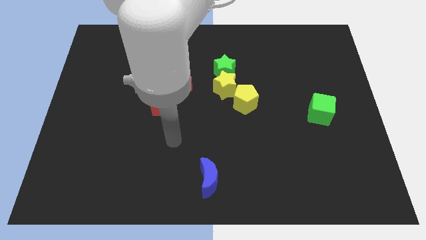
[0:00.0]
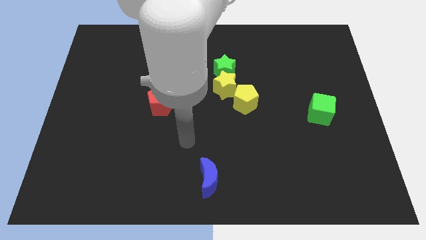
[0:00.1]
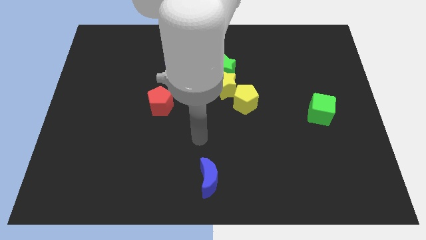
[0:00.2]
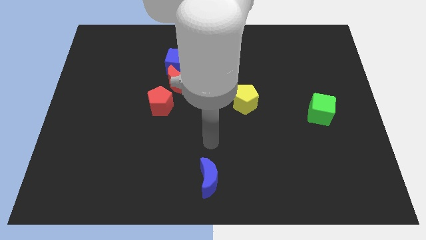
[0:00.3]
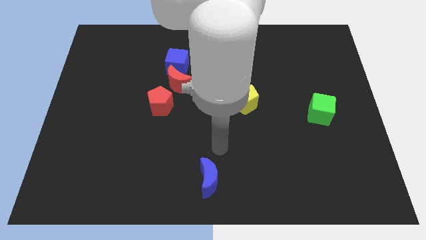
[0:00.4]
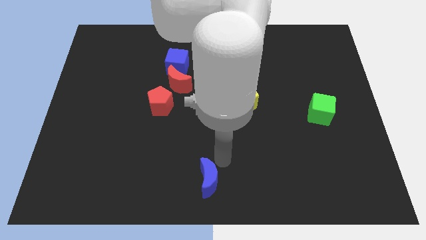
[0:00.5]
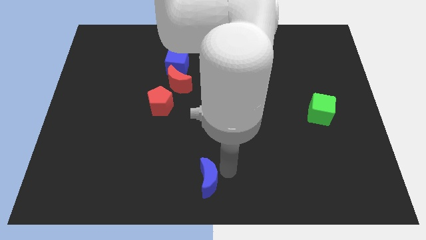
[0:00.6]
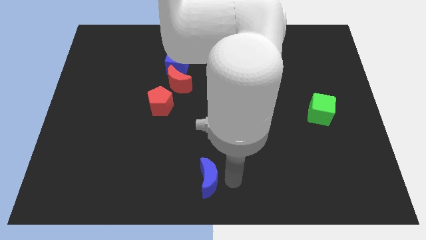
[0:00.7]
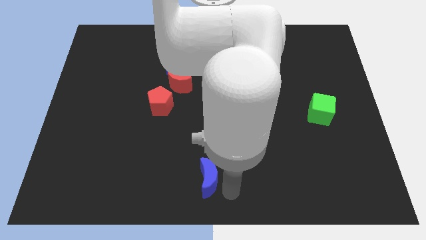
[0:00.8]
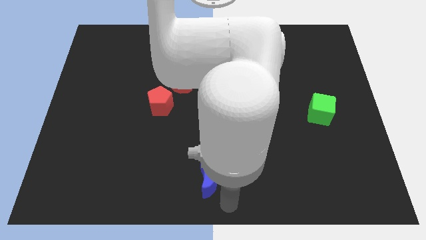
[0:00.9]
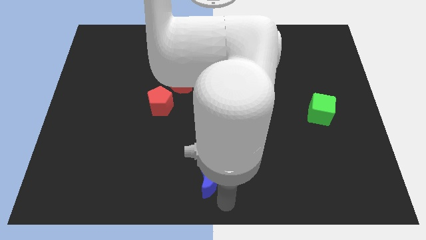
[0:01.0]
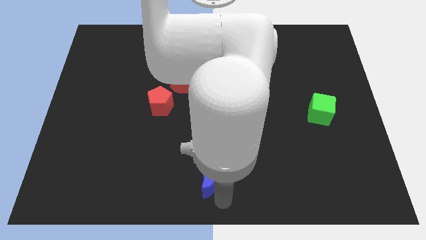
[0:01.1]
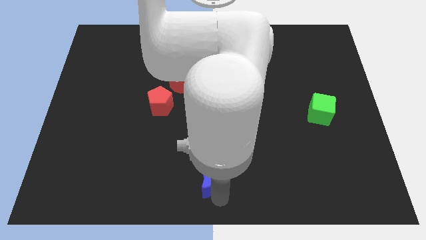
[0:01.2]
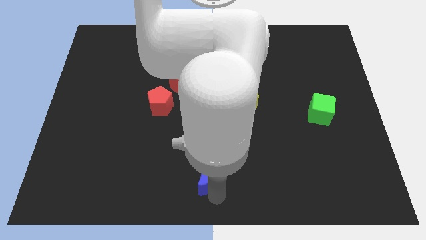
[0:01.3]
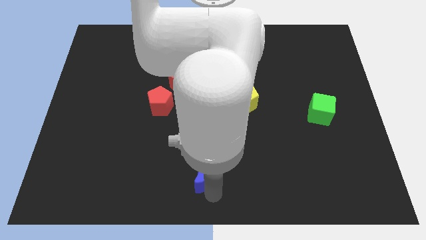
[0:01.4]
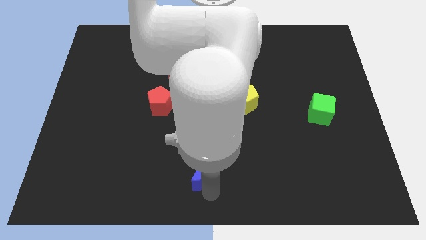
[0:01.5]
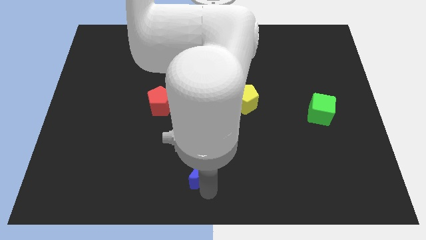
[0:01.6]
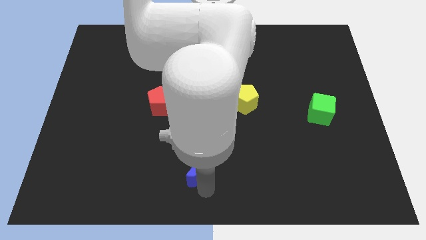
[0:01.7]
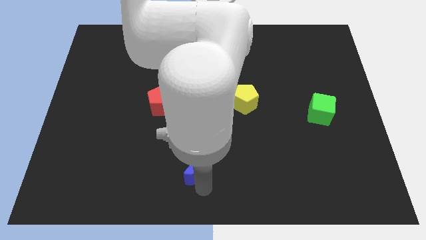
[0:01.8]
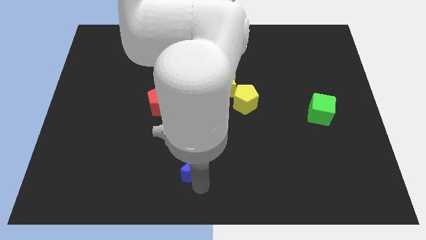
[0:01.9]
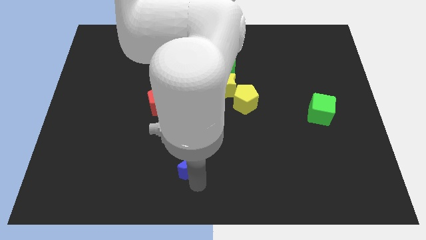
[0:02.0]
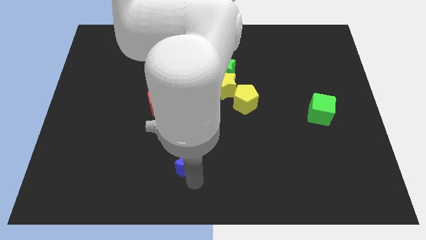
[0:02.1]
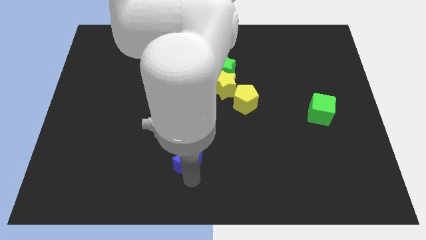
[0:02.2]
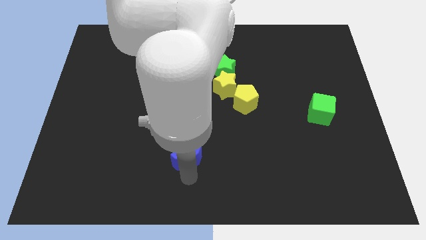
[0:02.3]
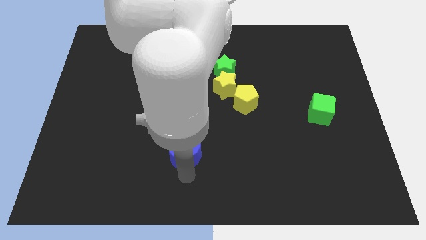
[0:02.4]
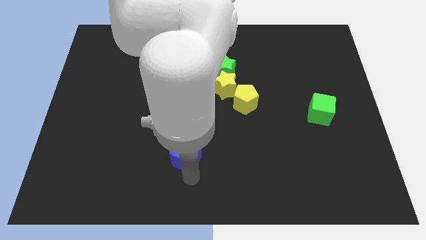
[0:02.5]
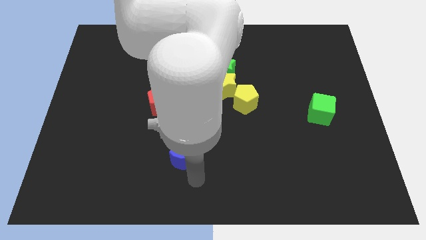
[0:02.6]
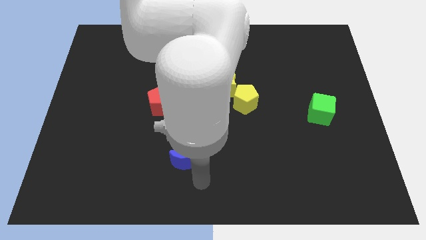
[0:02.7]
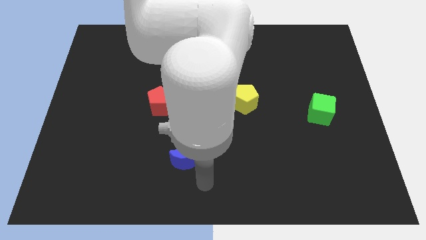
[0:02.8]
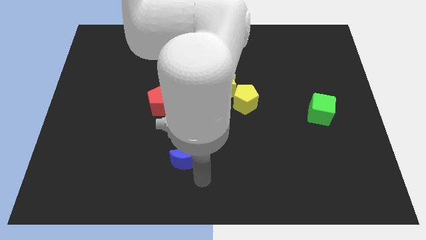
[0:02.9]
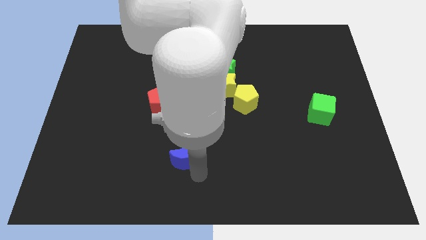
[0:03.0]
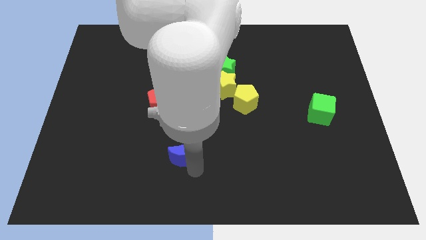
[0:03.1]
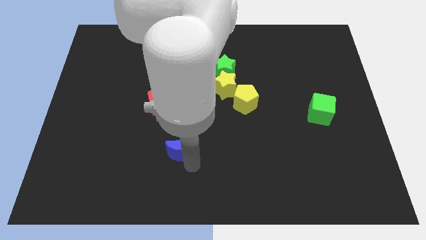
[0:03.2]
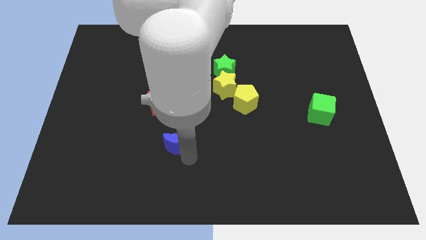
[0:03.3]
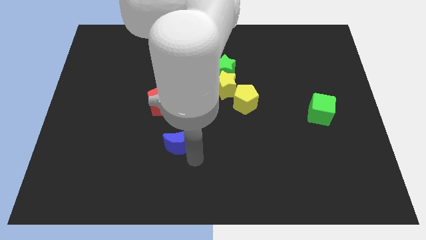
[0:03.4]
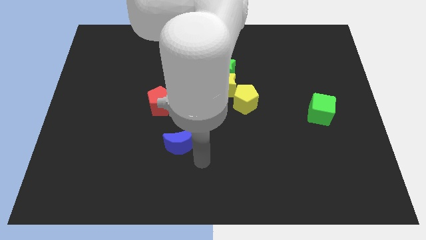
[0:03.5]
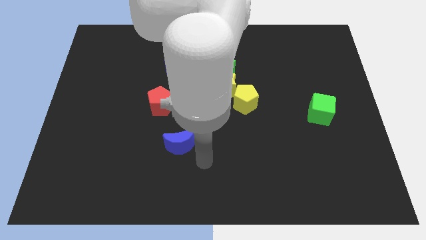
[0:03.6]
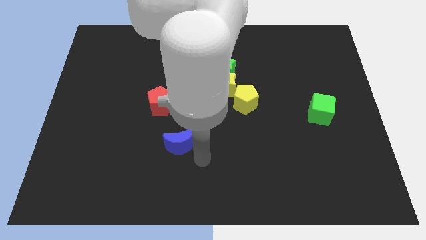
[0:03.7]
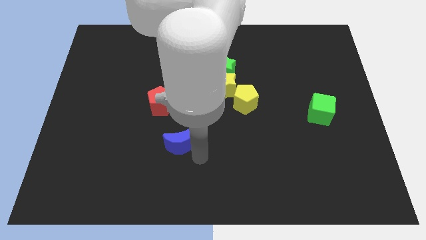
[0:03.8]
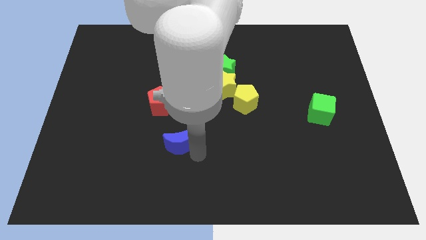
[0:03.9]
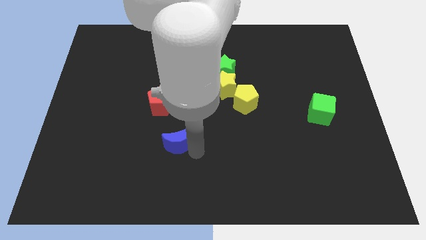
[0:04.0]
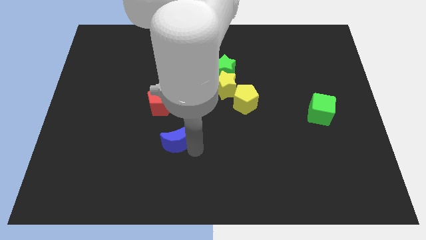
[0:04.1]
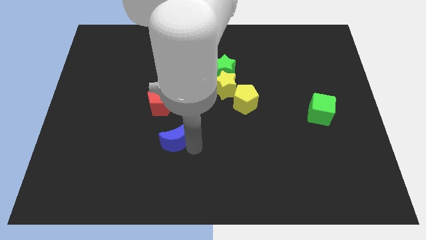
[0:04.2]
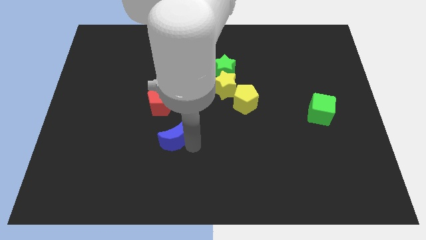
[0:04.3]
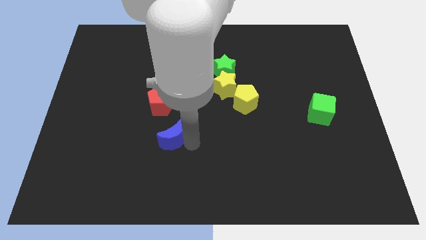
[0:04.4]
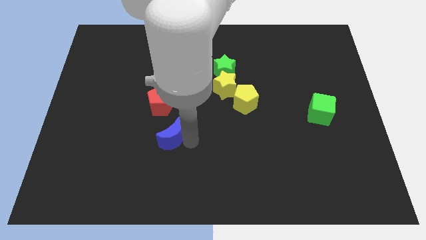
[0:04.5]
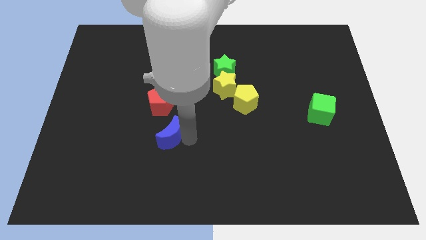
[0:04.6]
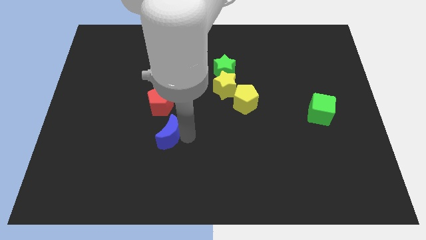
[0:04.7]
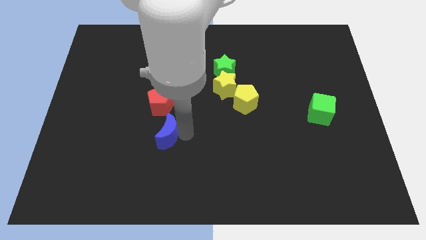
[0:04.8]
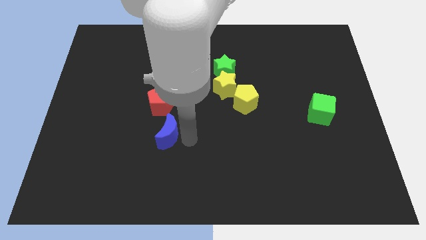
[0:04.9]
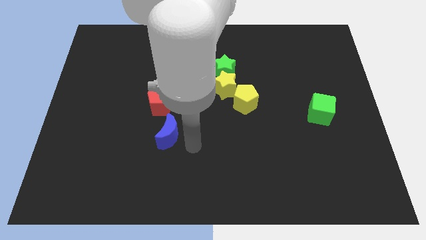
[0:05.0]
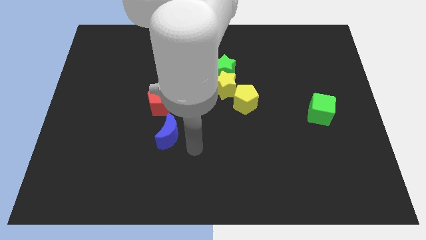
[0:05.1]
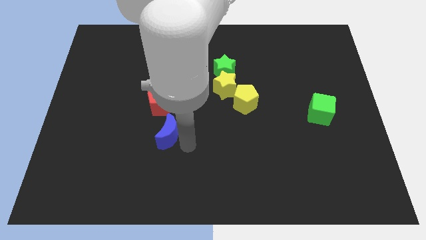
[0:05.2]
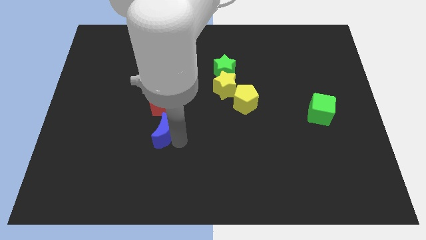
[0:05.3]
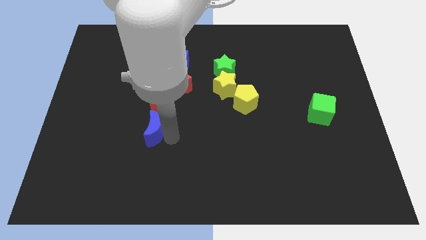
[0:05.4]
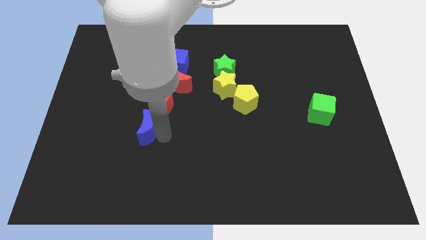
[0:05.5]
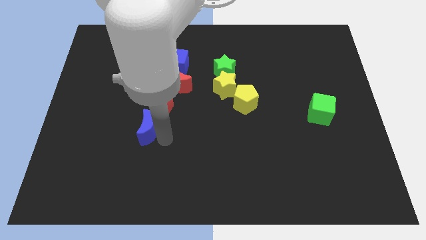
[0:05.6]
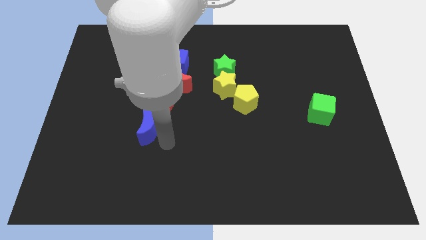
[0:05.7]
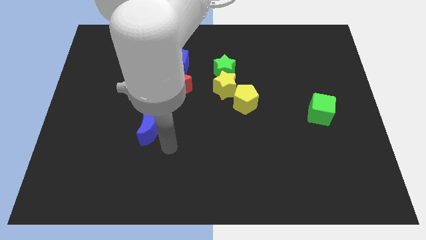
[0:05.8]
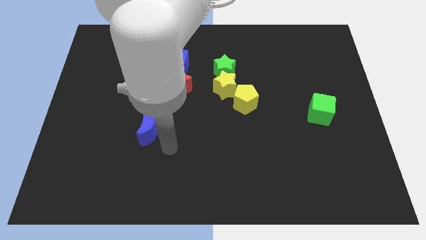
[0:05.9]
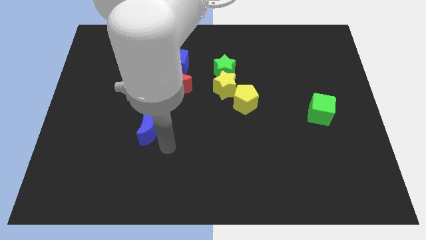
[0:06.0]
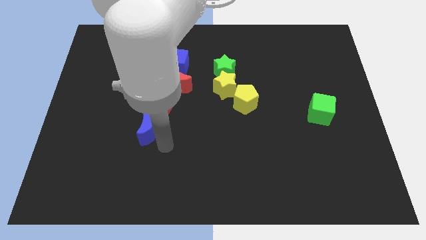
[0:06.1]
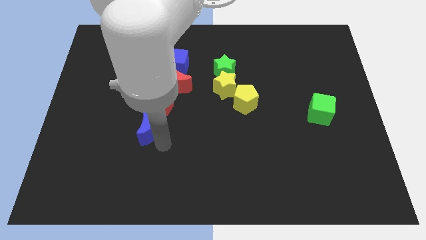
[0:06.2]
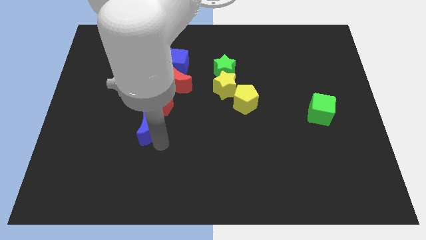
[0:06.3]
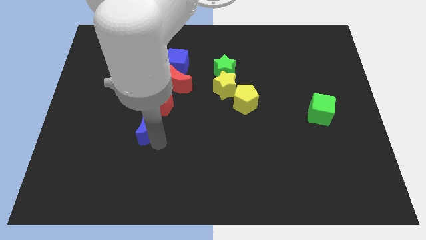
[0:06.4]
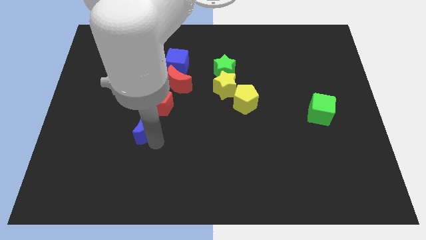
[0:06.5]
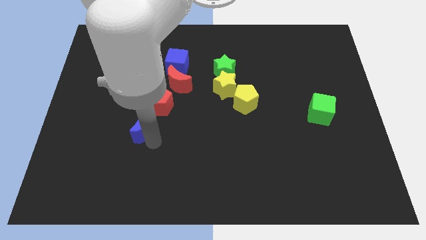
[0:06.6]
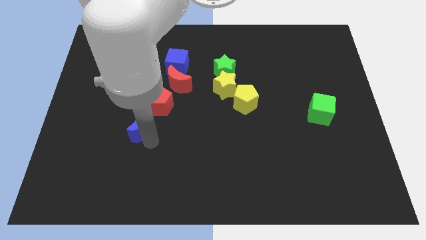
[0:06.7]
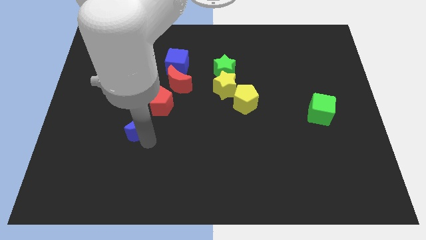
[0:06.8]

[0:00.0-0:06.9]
slide the blue moon up and left

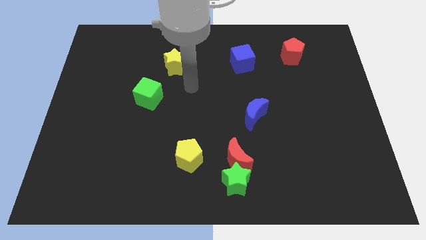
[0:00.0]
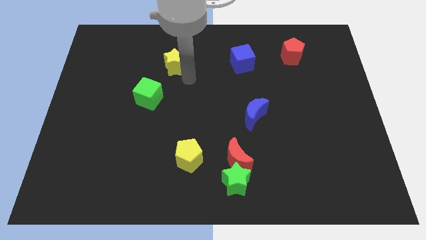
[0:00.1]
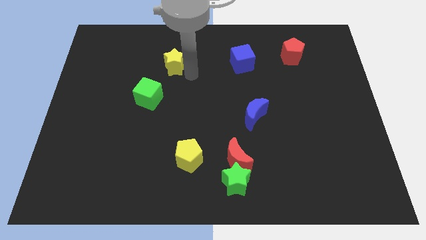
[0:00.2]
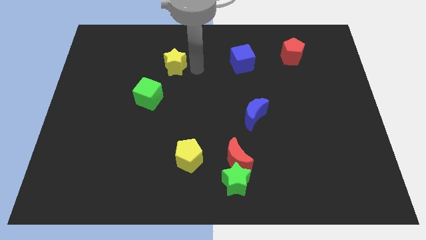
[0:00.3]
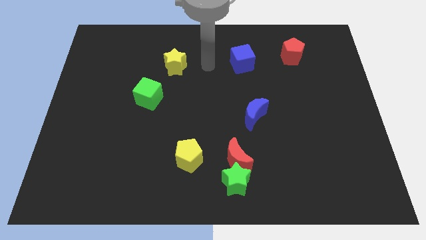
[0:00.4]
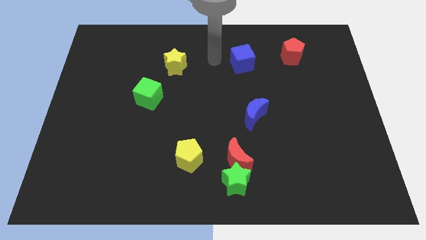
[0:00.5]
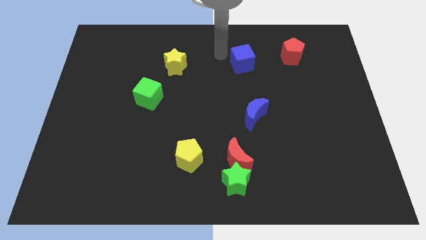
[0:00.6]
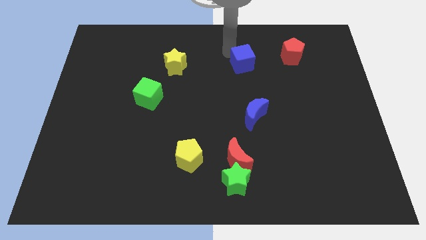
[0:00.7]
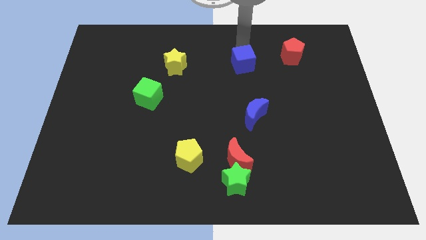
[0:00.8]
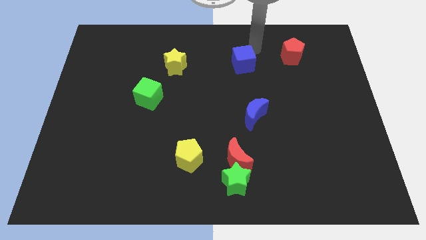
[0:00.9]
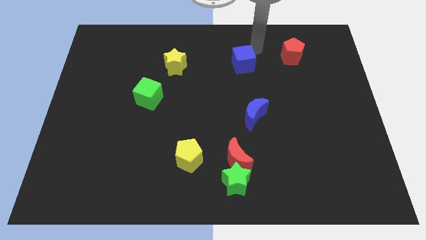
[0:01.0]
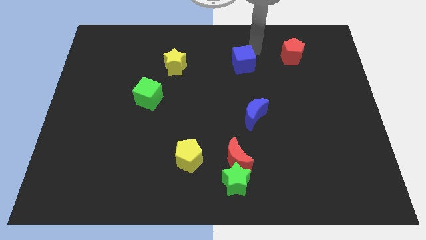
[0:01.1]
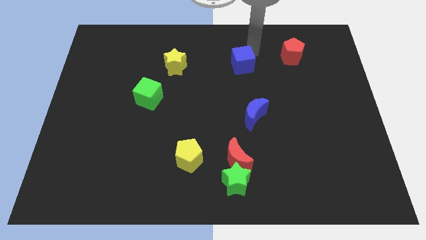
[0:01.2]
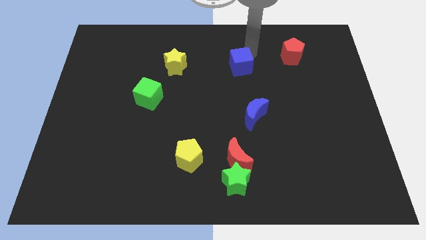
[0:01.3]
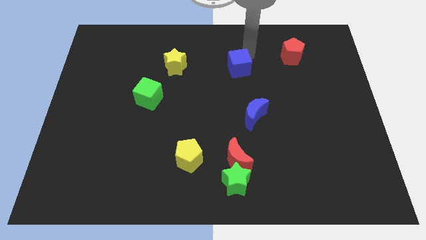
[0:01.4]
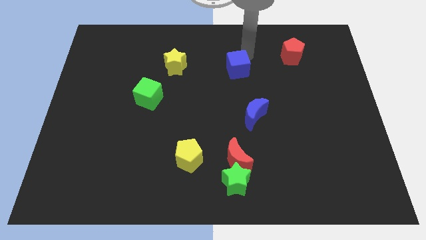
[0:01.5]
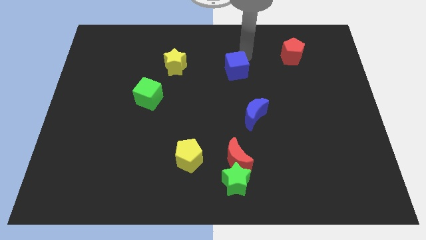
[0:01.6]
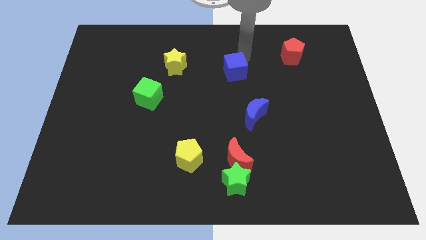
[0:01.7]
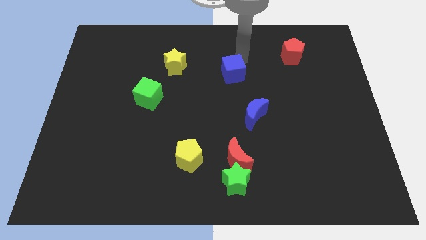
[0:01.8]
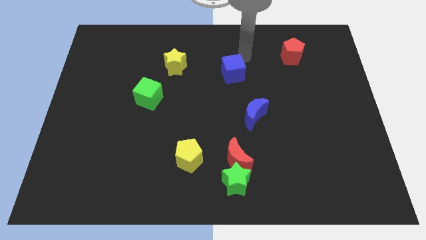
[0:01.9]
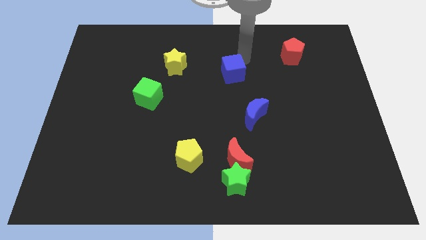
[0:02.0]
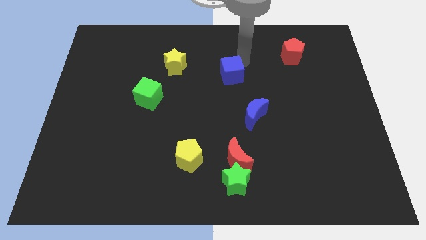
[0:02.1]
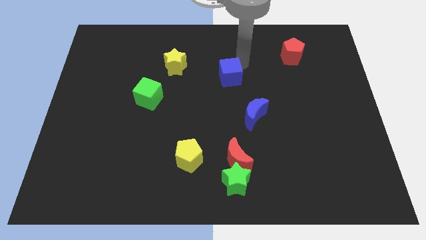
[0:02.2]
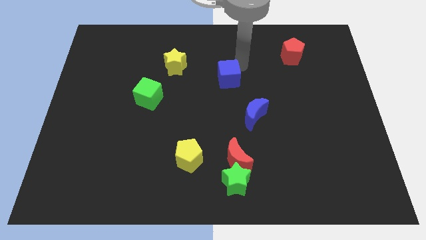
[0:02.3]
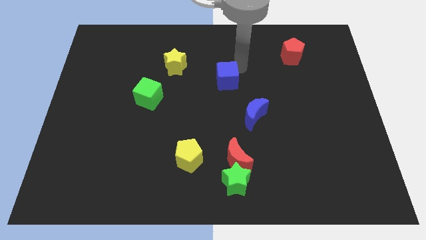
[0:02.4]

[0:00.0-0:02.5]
move the blue cube a little bit downwards and then to the left
